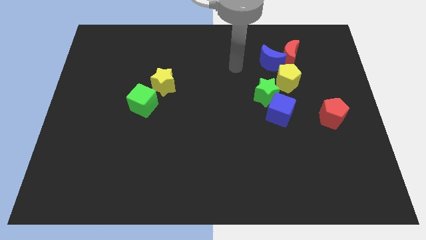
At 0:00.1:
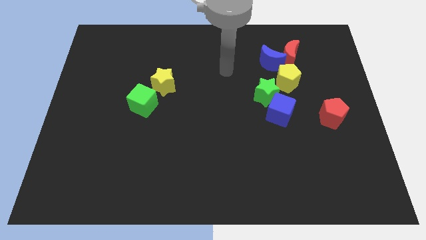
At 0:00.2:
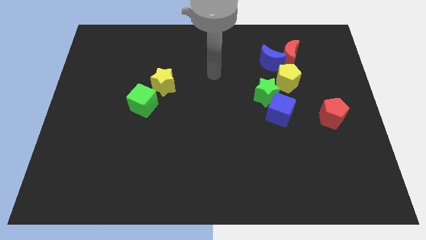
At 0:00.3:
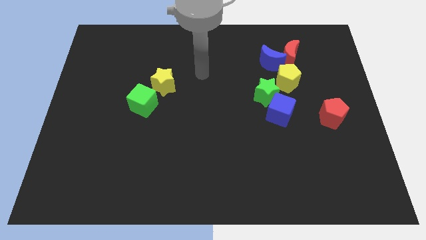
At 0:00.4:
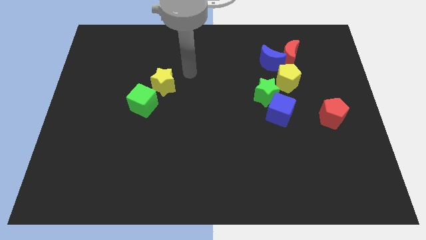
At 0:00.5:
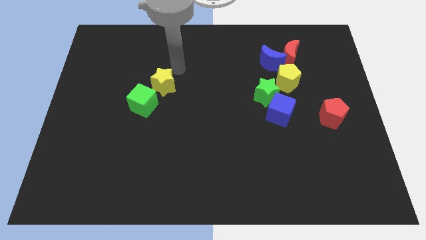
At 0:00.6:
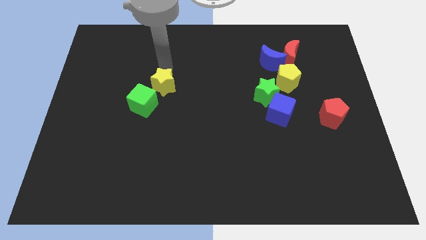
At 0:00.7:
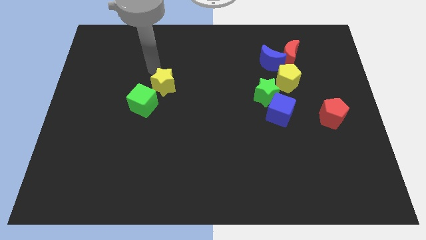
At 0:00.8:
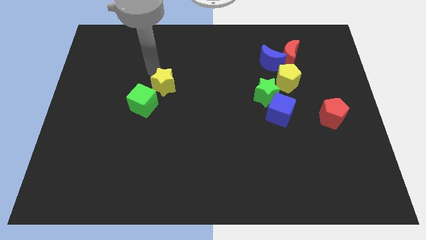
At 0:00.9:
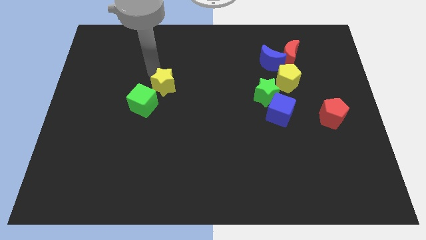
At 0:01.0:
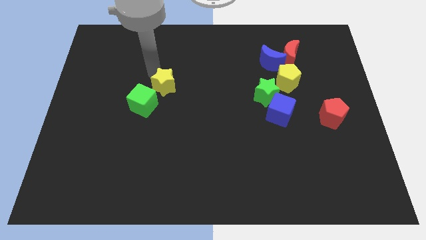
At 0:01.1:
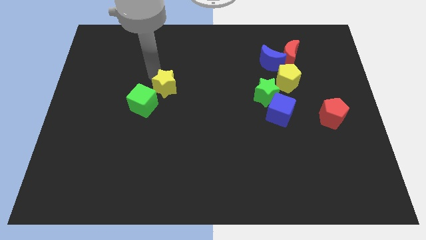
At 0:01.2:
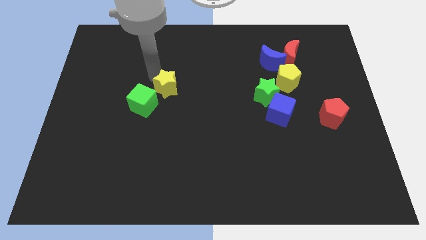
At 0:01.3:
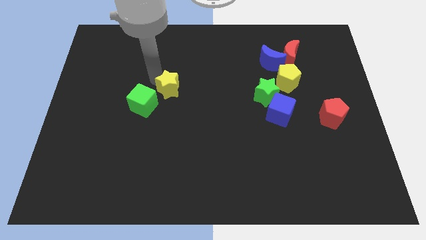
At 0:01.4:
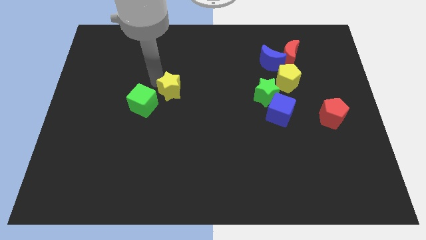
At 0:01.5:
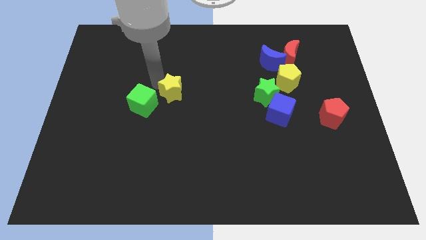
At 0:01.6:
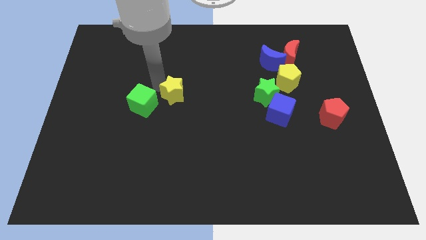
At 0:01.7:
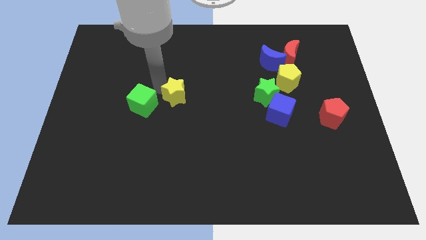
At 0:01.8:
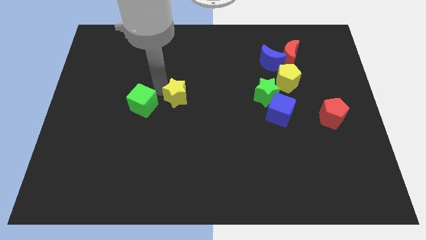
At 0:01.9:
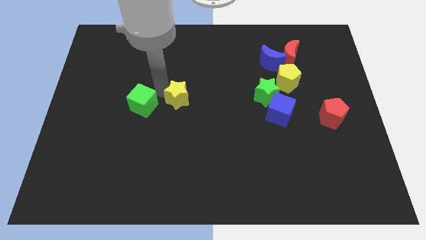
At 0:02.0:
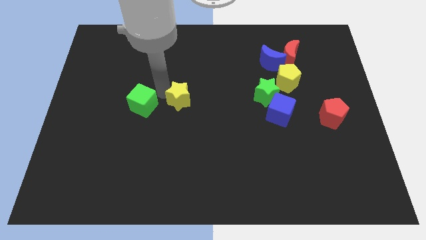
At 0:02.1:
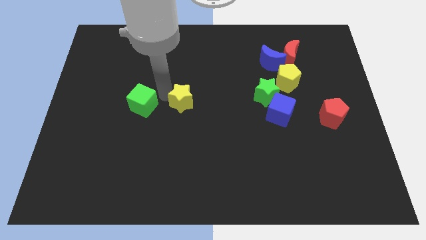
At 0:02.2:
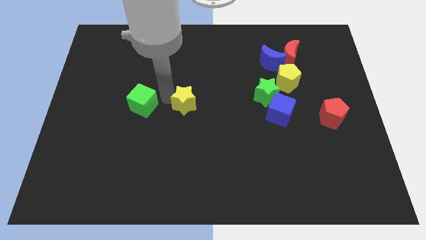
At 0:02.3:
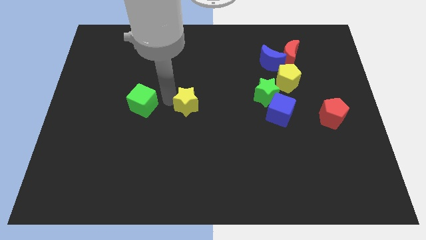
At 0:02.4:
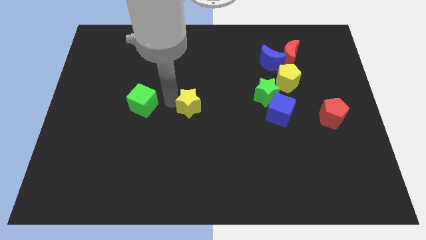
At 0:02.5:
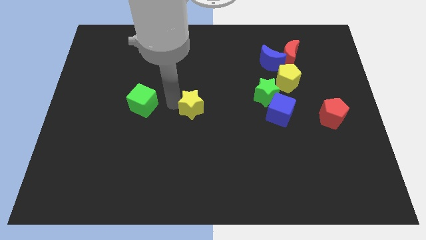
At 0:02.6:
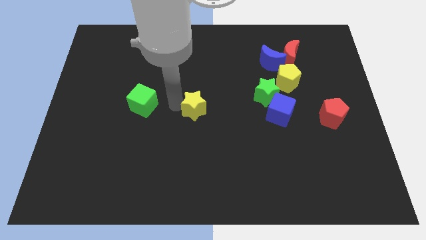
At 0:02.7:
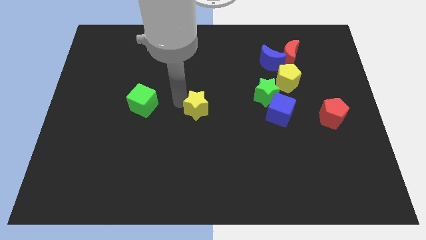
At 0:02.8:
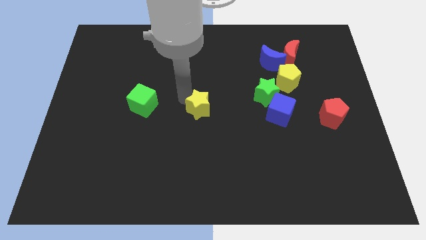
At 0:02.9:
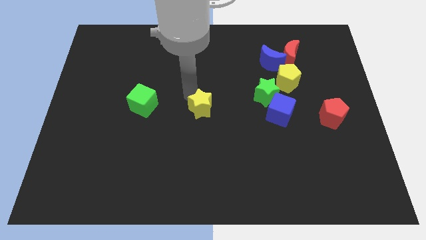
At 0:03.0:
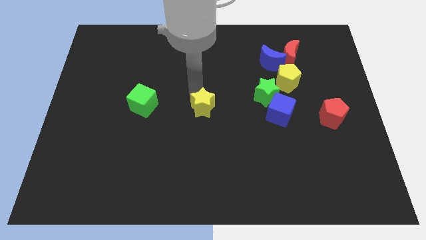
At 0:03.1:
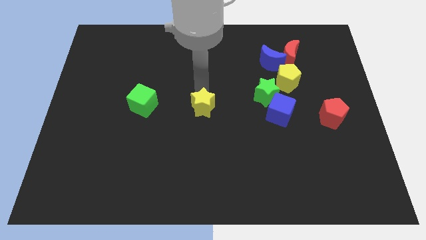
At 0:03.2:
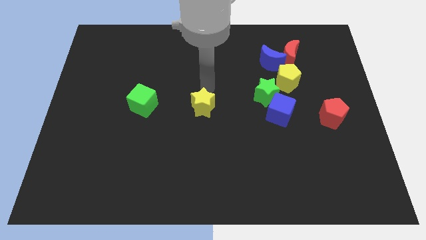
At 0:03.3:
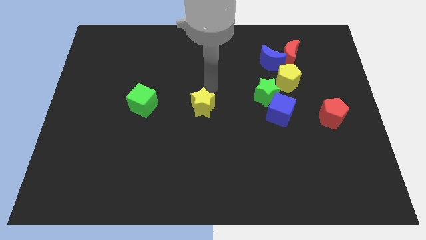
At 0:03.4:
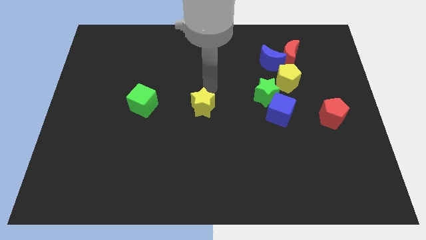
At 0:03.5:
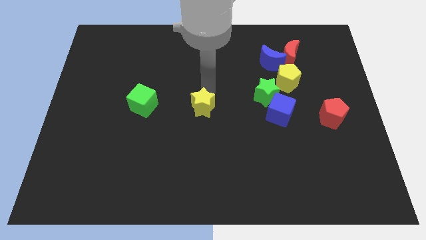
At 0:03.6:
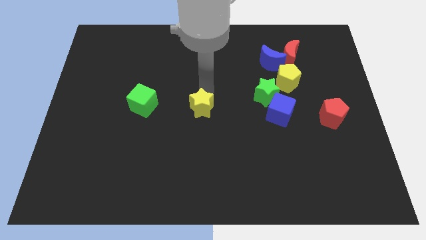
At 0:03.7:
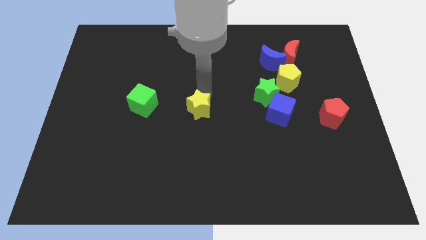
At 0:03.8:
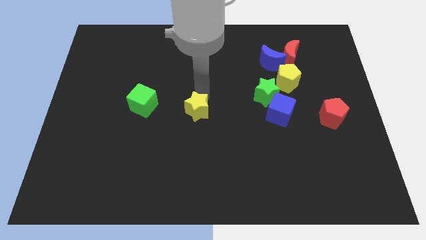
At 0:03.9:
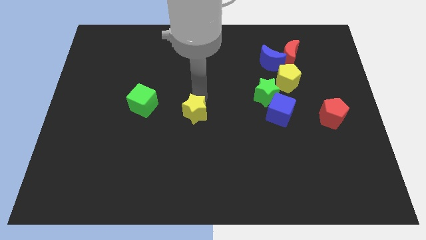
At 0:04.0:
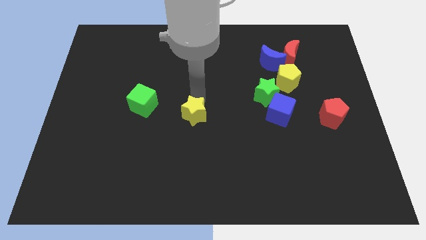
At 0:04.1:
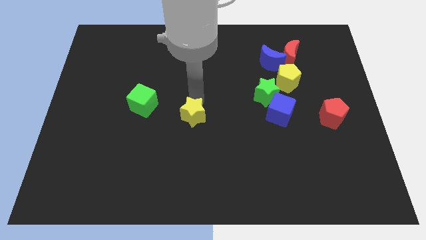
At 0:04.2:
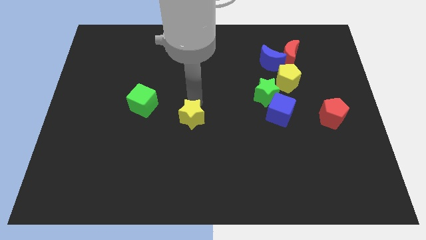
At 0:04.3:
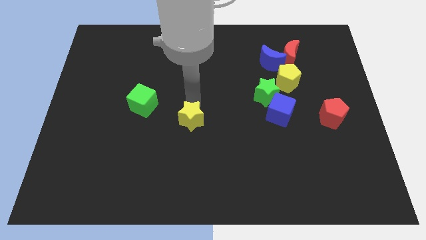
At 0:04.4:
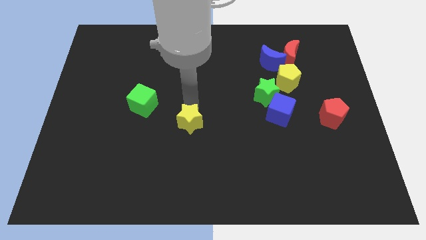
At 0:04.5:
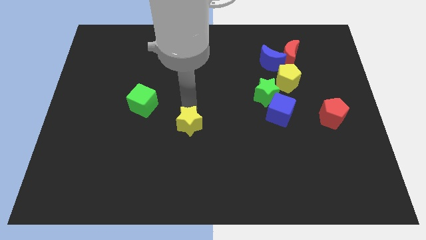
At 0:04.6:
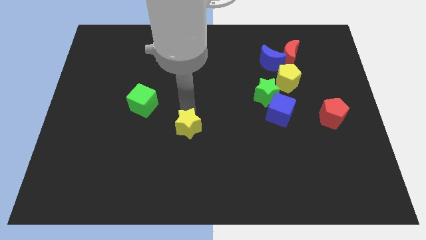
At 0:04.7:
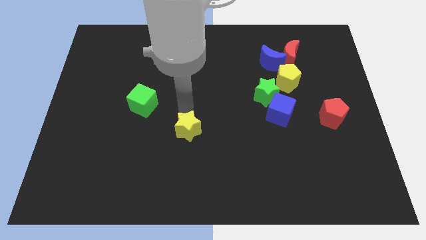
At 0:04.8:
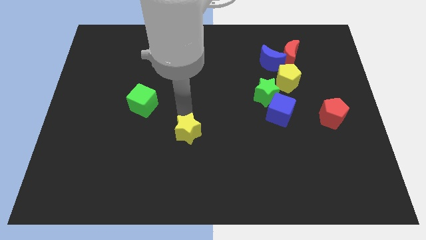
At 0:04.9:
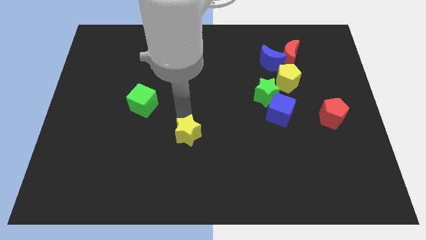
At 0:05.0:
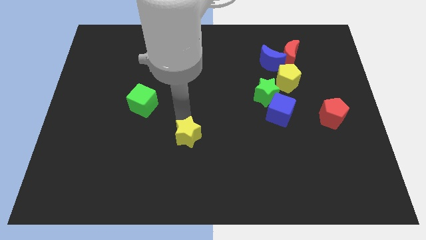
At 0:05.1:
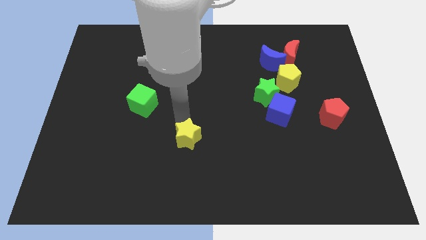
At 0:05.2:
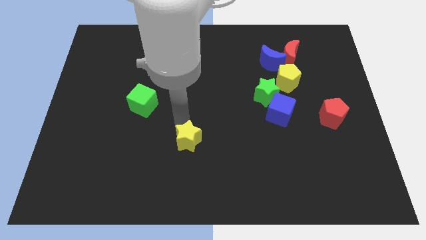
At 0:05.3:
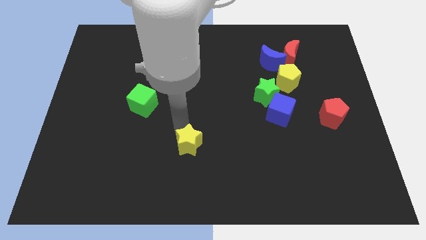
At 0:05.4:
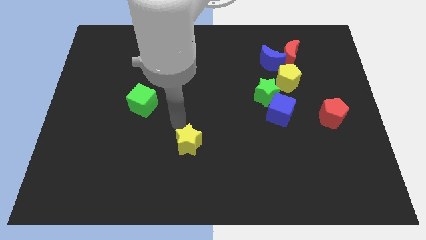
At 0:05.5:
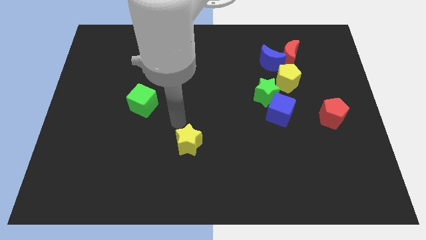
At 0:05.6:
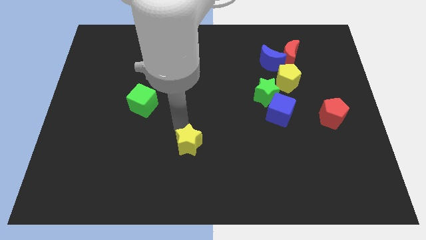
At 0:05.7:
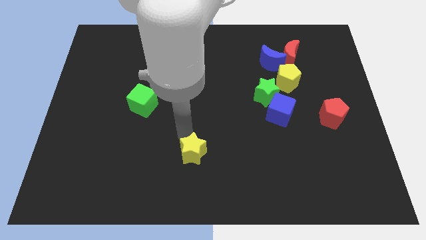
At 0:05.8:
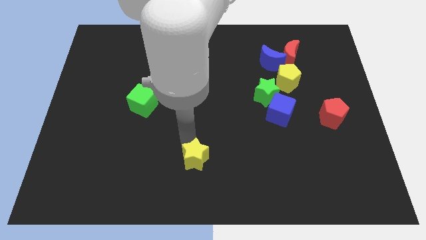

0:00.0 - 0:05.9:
put the yellow star to the bottom side
